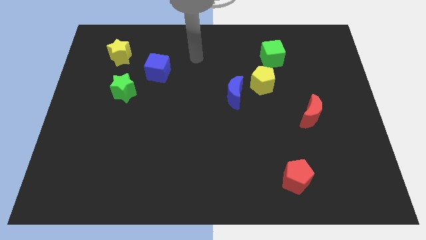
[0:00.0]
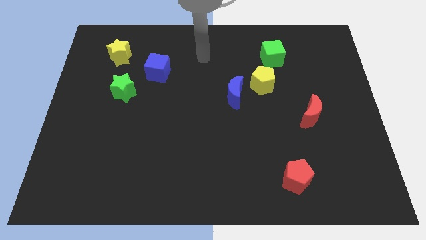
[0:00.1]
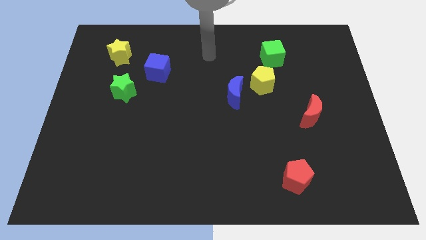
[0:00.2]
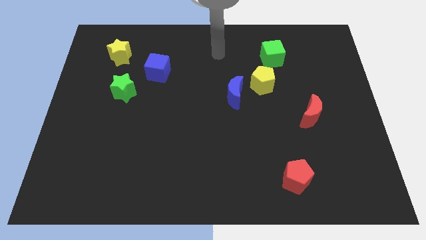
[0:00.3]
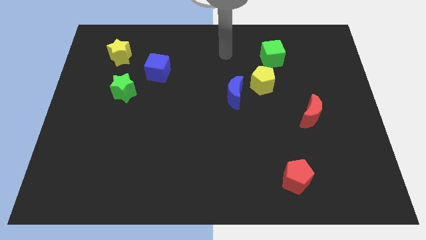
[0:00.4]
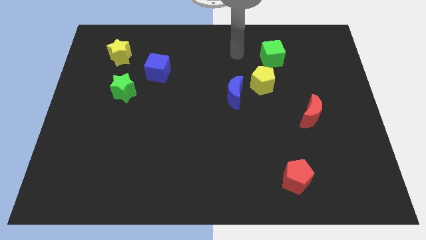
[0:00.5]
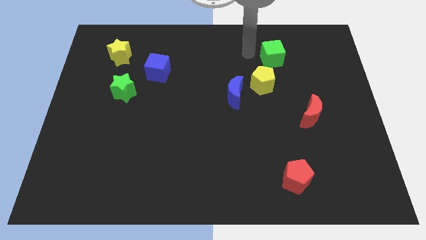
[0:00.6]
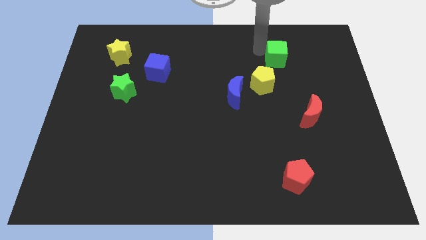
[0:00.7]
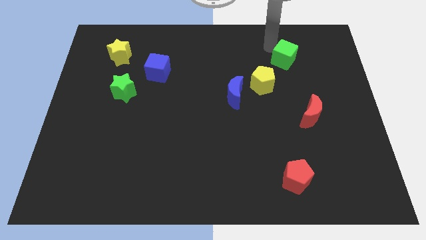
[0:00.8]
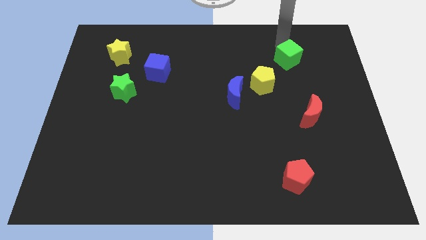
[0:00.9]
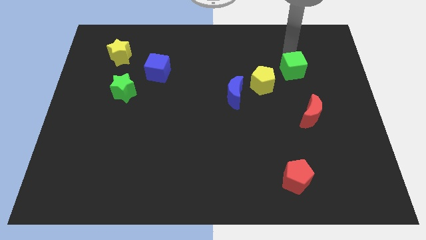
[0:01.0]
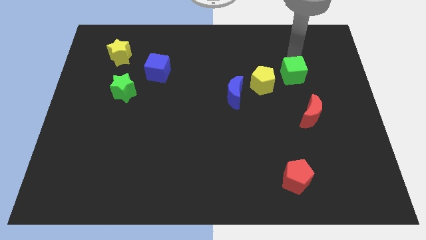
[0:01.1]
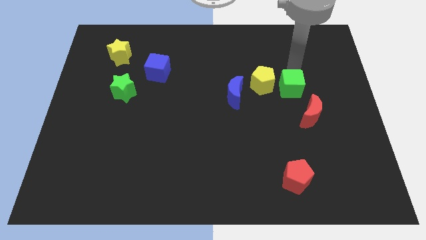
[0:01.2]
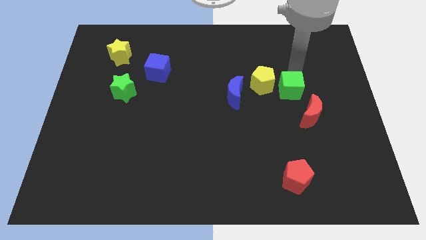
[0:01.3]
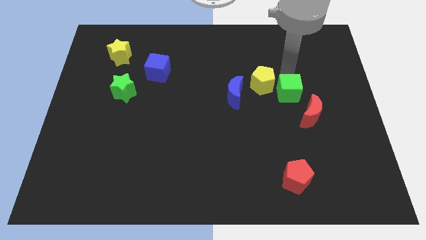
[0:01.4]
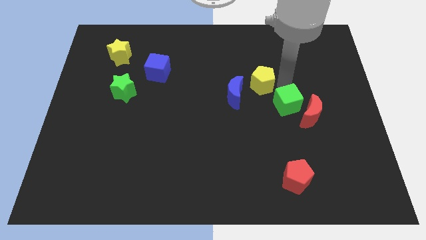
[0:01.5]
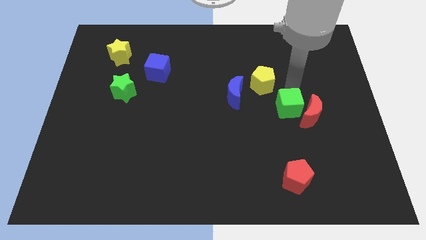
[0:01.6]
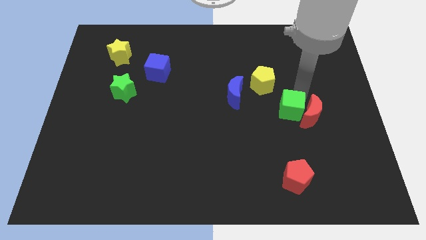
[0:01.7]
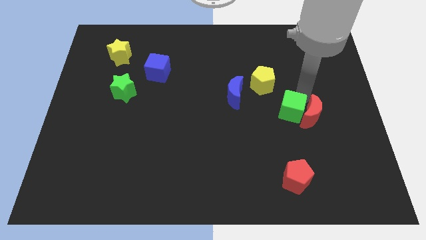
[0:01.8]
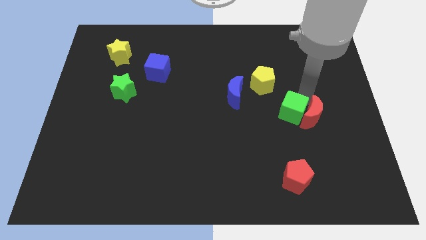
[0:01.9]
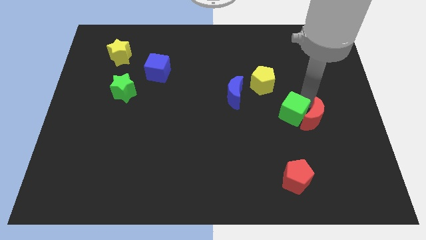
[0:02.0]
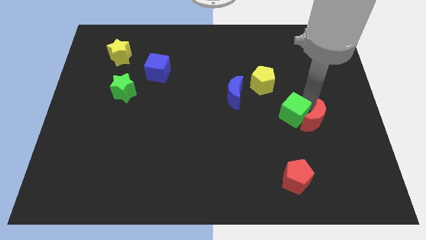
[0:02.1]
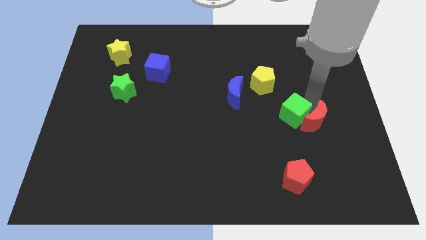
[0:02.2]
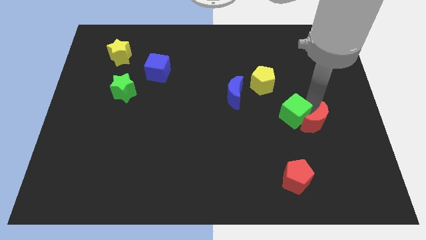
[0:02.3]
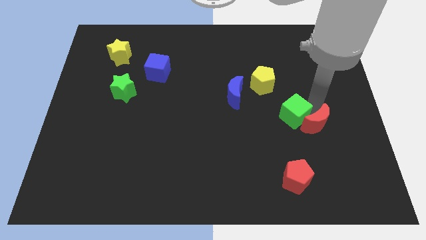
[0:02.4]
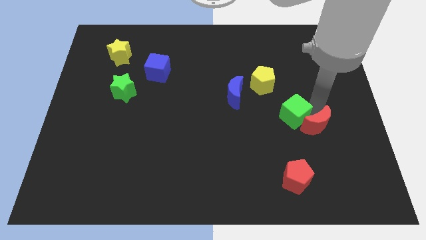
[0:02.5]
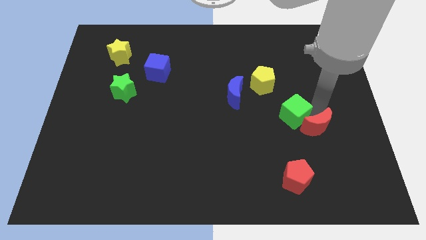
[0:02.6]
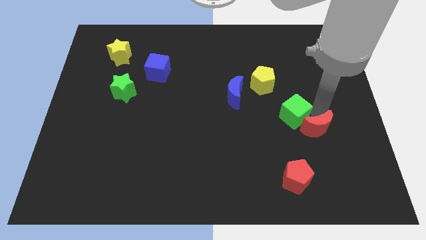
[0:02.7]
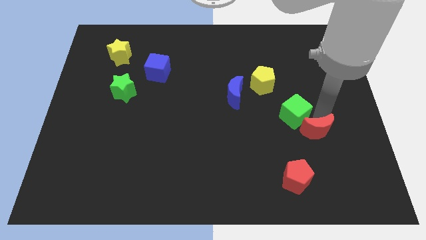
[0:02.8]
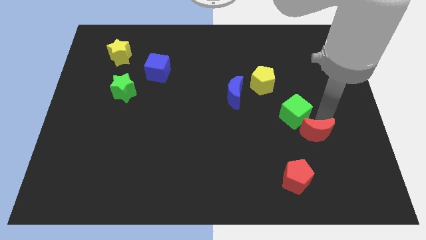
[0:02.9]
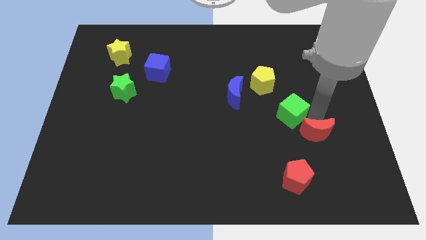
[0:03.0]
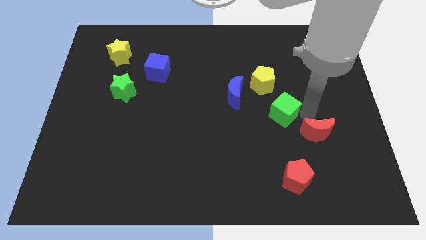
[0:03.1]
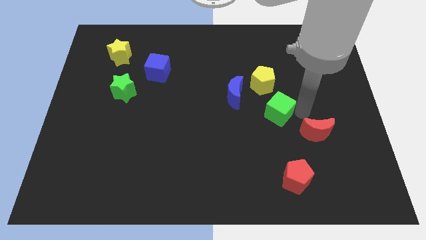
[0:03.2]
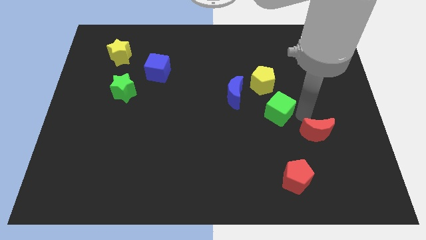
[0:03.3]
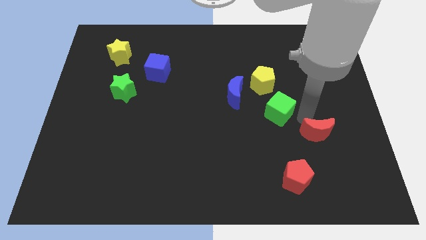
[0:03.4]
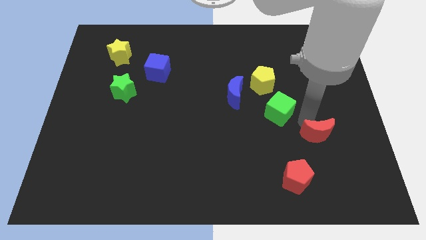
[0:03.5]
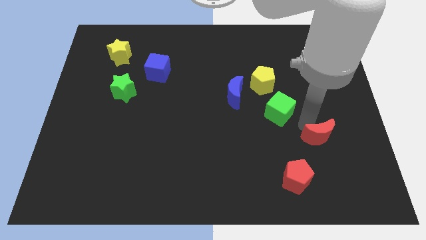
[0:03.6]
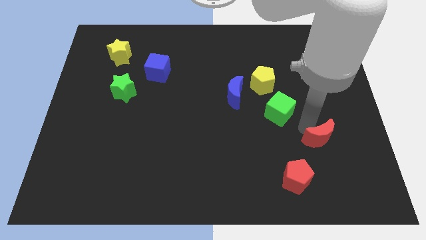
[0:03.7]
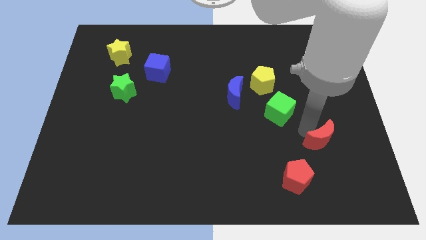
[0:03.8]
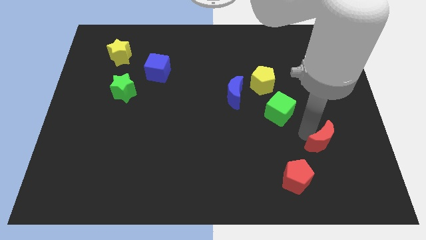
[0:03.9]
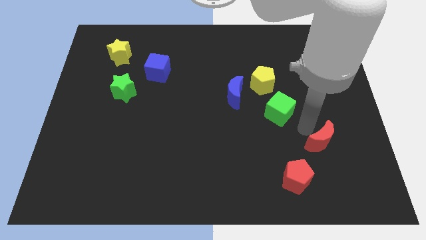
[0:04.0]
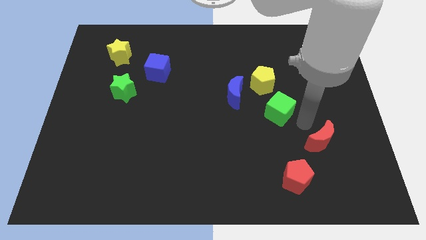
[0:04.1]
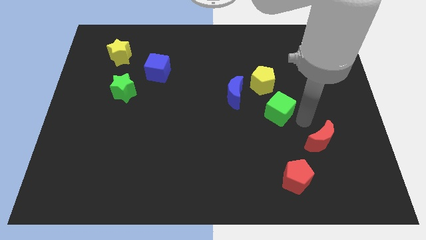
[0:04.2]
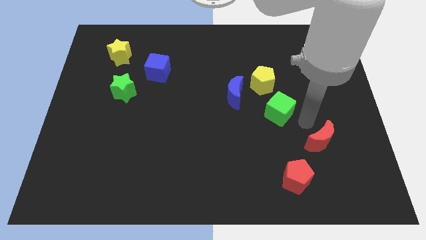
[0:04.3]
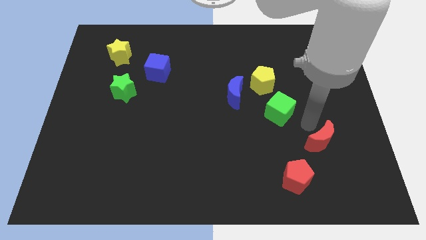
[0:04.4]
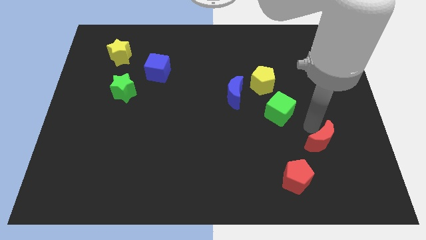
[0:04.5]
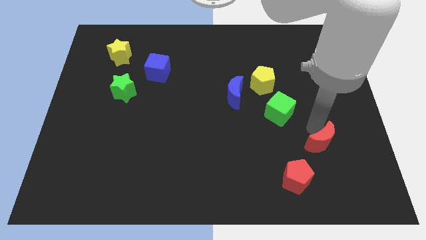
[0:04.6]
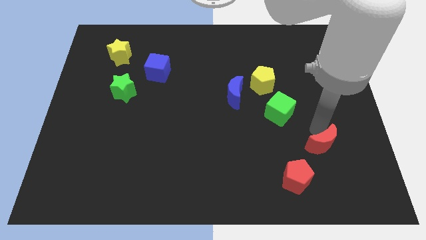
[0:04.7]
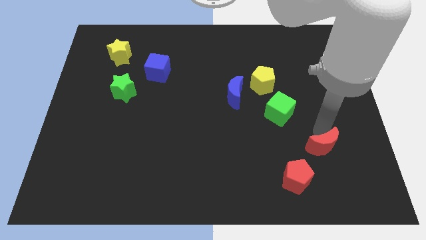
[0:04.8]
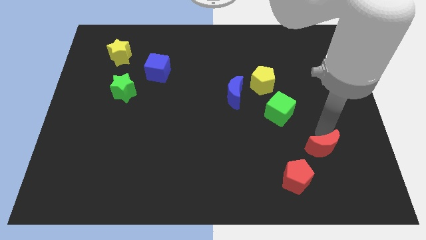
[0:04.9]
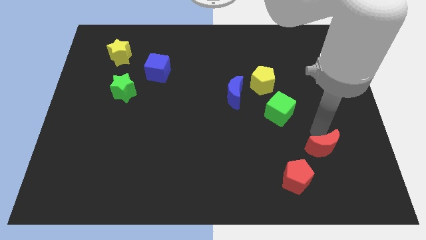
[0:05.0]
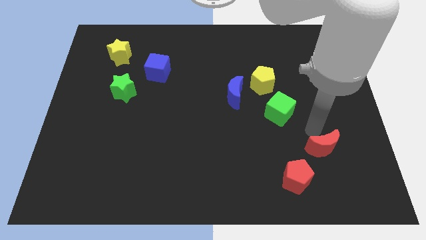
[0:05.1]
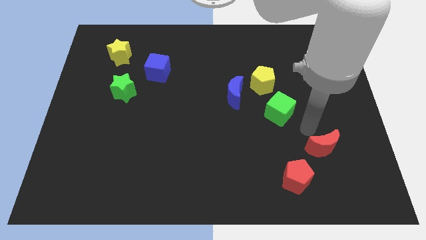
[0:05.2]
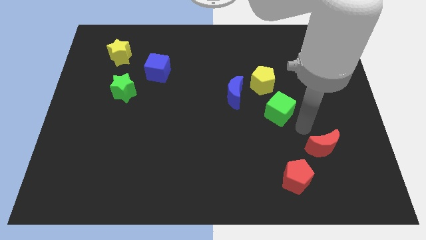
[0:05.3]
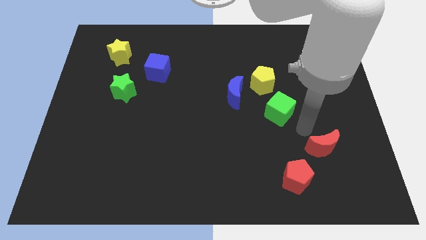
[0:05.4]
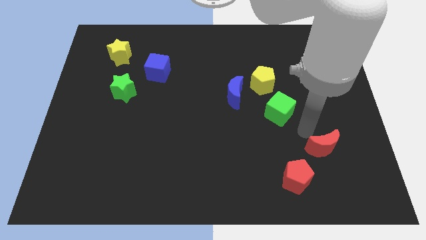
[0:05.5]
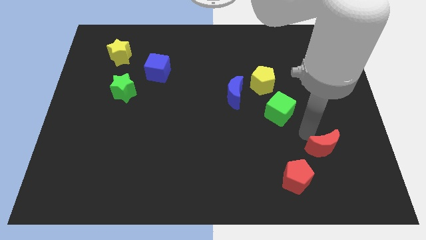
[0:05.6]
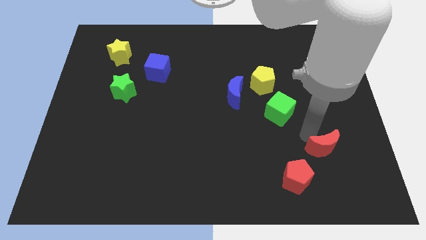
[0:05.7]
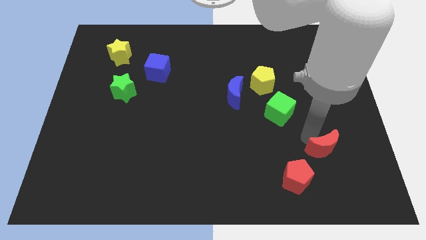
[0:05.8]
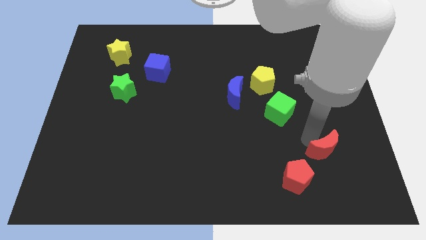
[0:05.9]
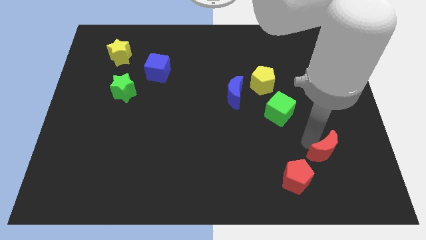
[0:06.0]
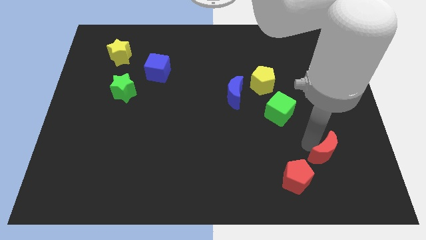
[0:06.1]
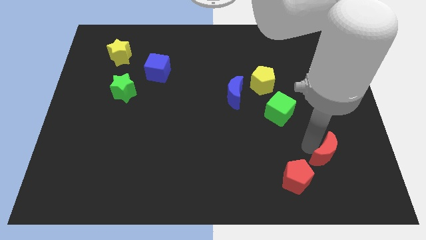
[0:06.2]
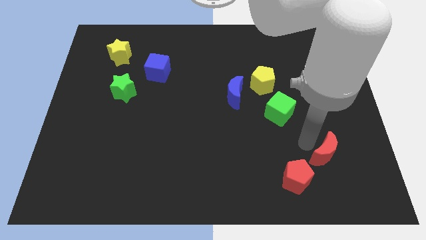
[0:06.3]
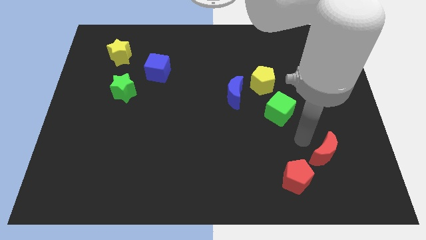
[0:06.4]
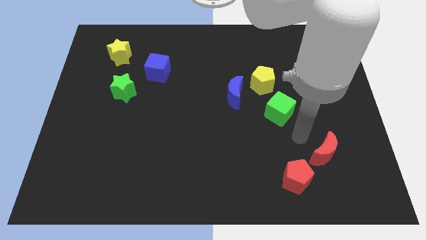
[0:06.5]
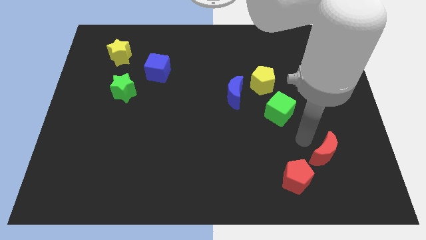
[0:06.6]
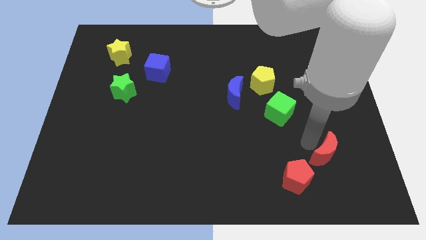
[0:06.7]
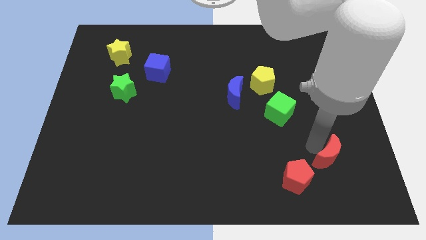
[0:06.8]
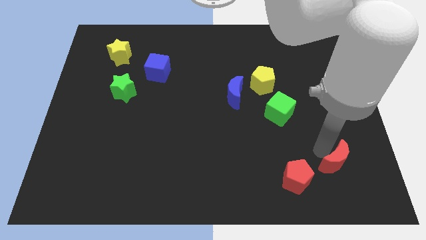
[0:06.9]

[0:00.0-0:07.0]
put the red moon just right of the red pentagon

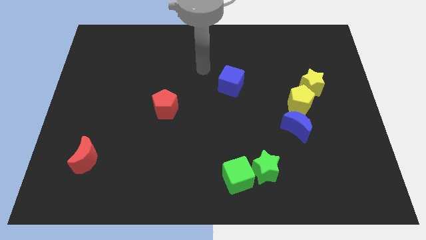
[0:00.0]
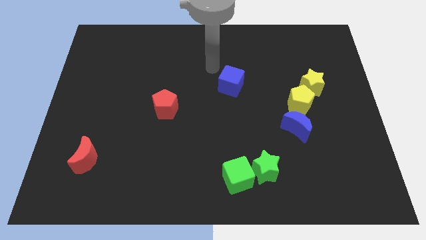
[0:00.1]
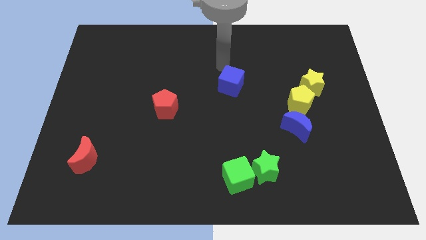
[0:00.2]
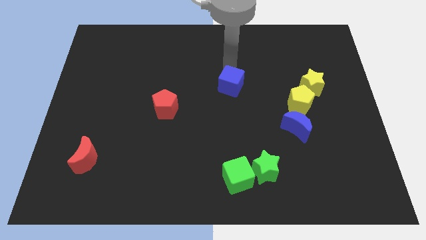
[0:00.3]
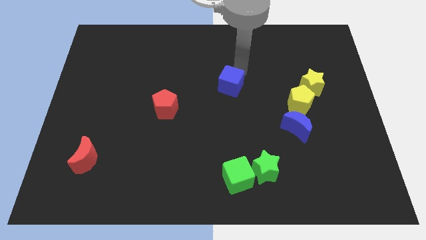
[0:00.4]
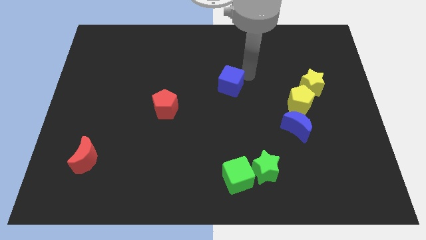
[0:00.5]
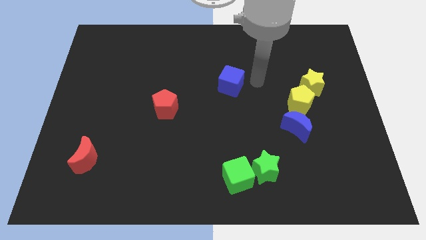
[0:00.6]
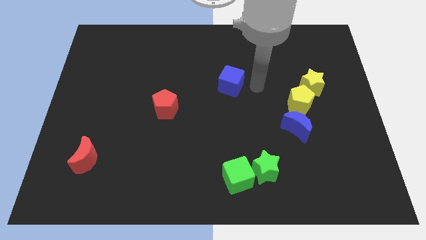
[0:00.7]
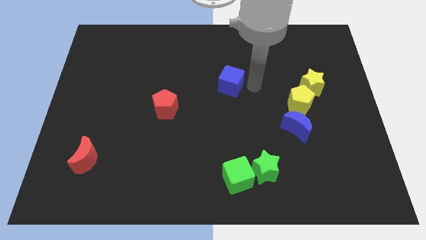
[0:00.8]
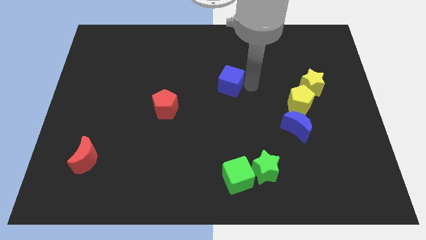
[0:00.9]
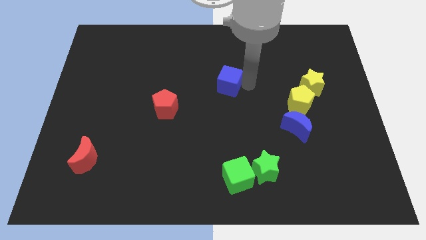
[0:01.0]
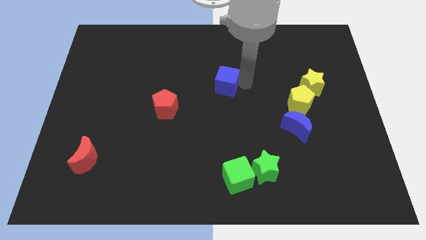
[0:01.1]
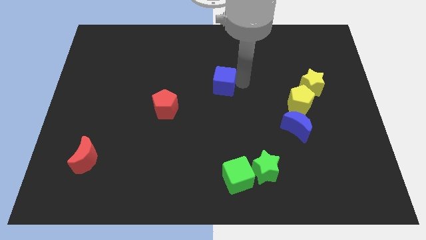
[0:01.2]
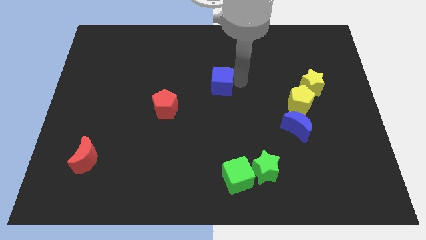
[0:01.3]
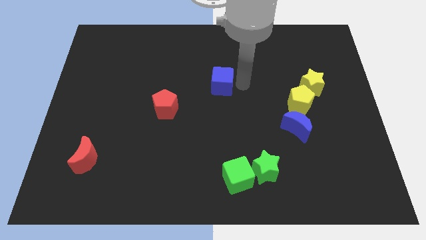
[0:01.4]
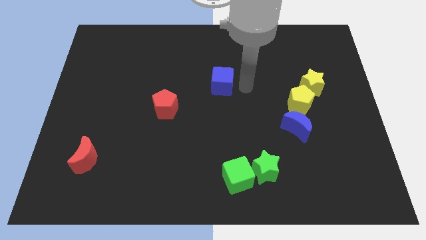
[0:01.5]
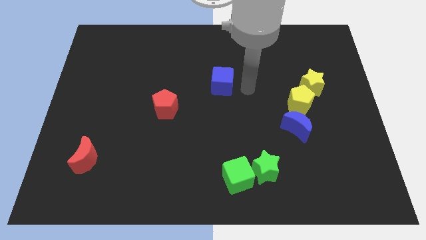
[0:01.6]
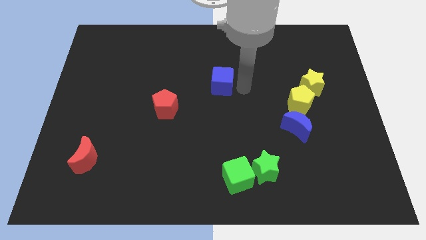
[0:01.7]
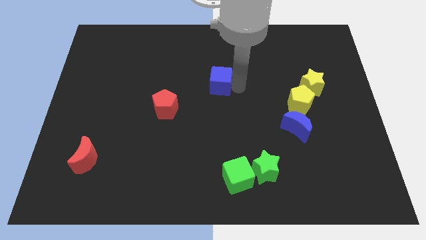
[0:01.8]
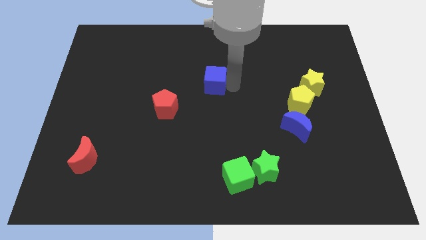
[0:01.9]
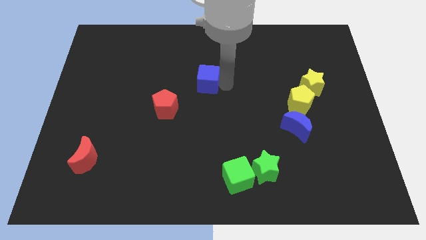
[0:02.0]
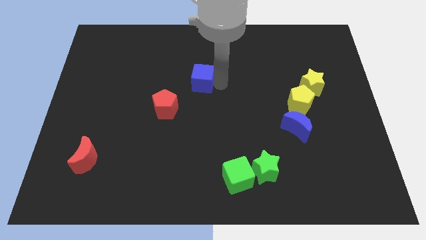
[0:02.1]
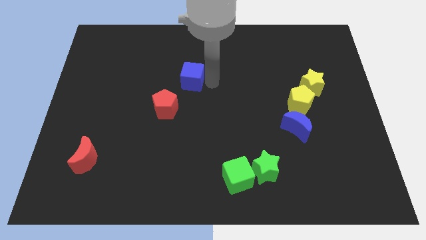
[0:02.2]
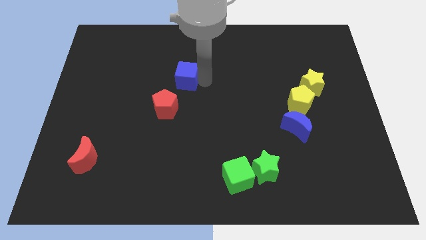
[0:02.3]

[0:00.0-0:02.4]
put the blue cube to the top side of the red pentagon
